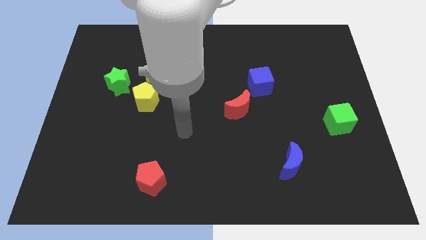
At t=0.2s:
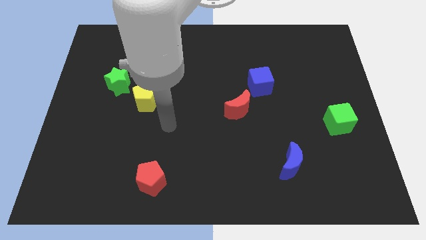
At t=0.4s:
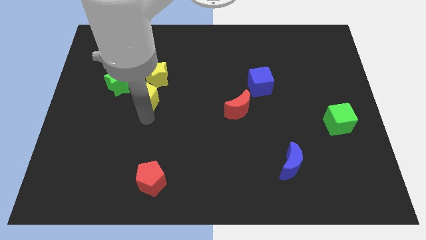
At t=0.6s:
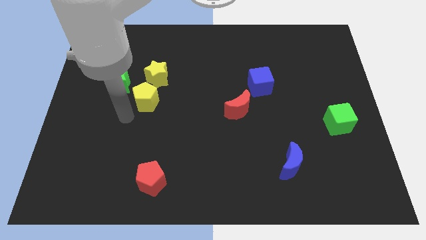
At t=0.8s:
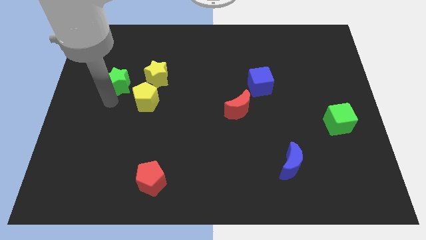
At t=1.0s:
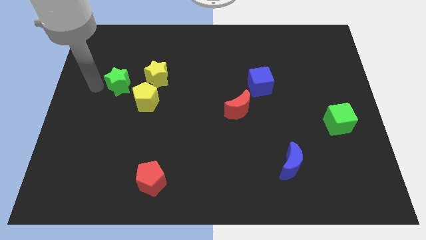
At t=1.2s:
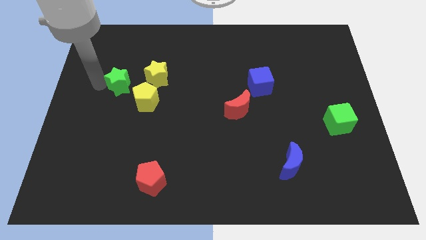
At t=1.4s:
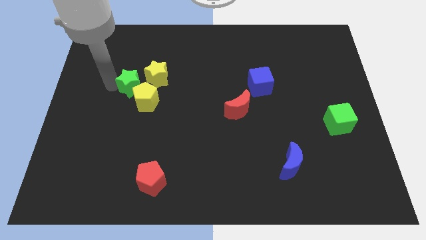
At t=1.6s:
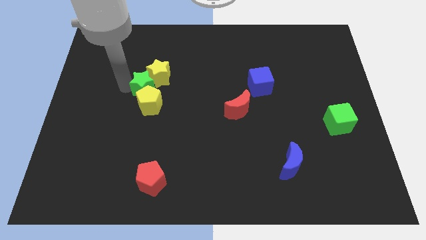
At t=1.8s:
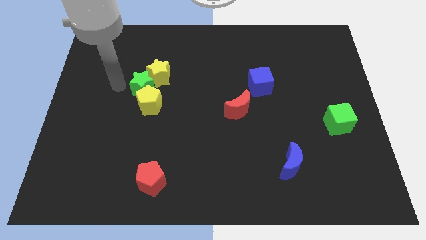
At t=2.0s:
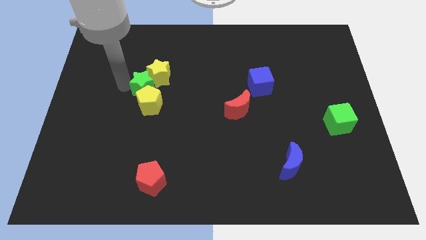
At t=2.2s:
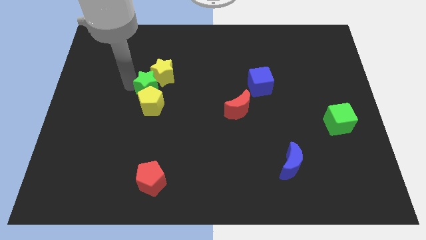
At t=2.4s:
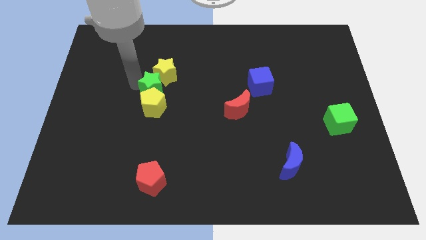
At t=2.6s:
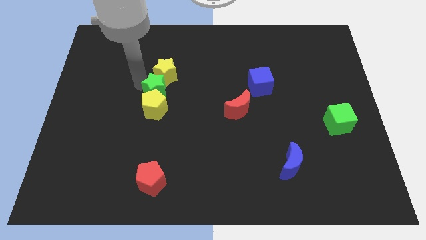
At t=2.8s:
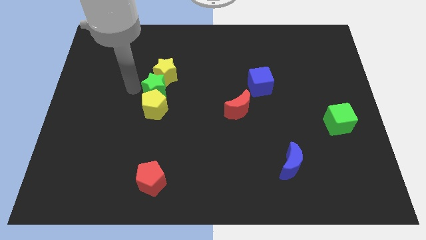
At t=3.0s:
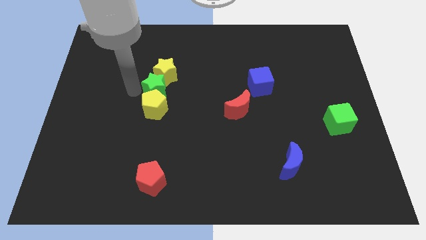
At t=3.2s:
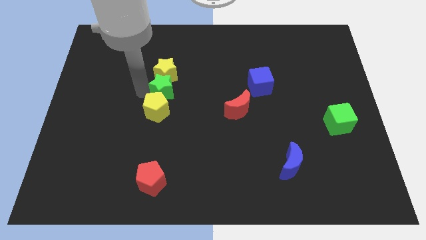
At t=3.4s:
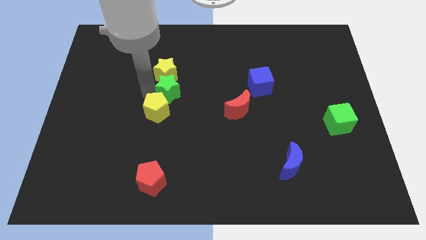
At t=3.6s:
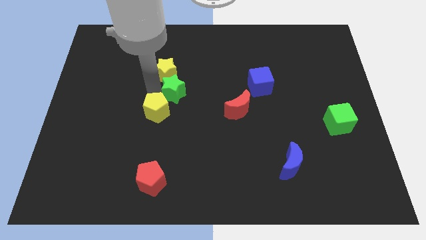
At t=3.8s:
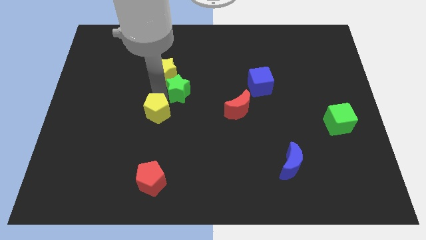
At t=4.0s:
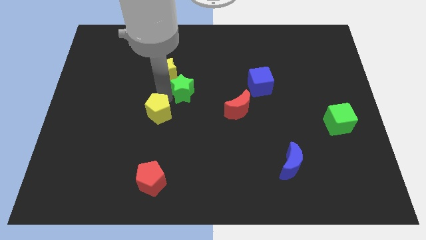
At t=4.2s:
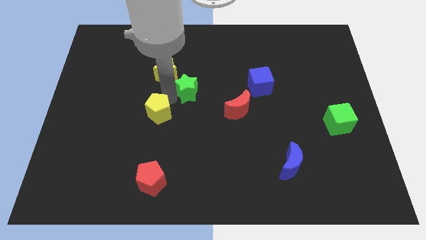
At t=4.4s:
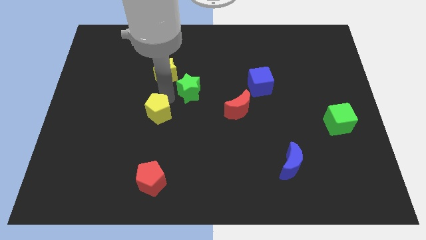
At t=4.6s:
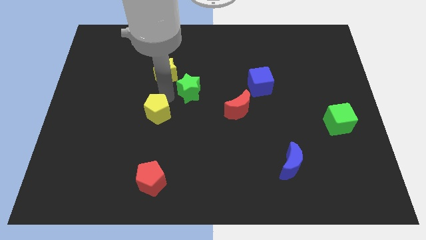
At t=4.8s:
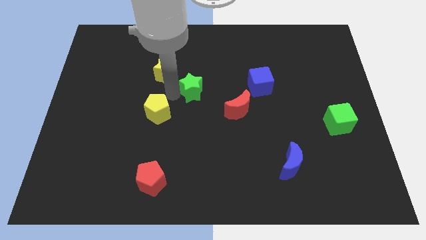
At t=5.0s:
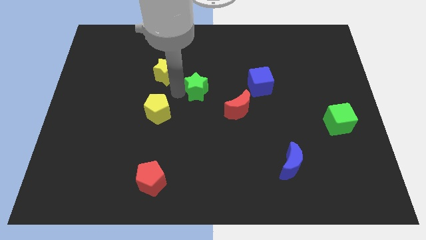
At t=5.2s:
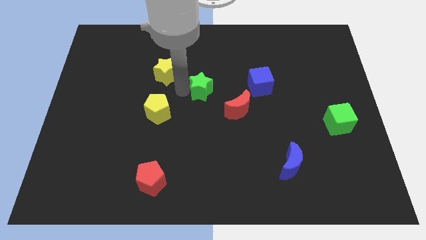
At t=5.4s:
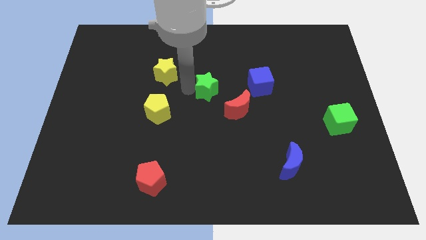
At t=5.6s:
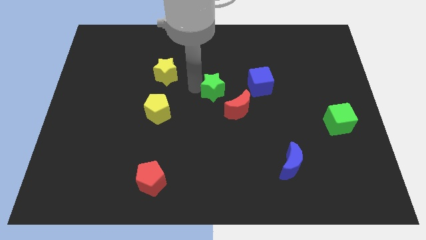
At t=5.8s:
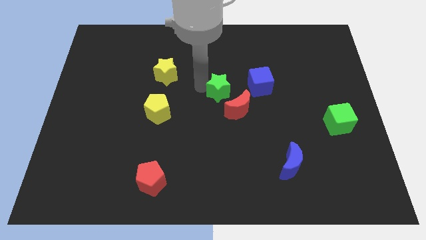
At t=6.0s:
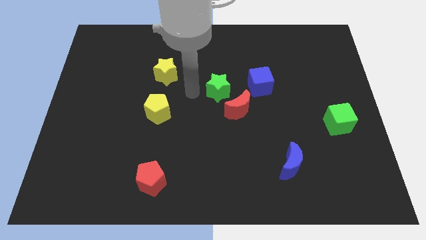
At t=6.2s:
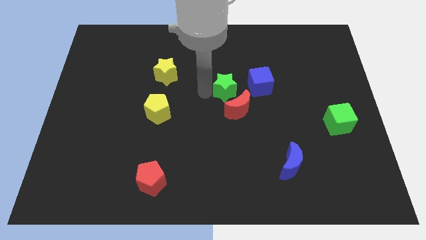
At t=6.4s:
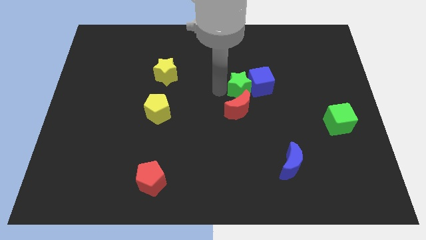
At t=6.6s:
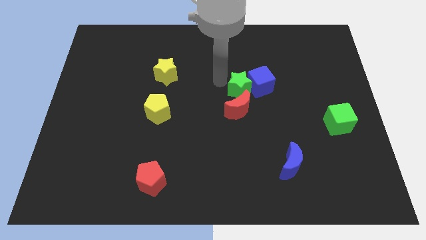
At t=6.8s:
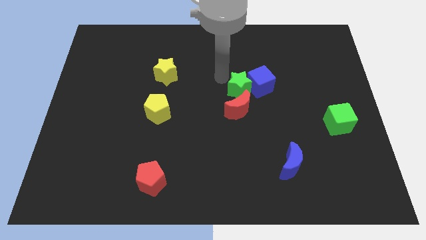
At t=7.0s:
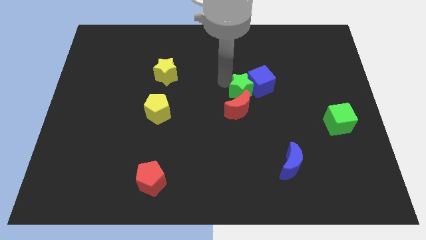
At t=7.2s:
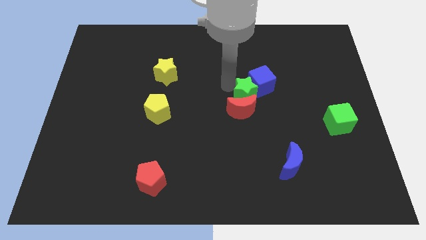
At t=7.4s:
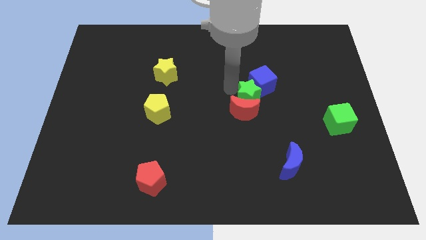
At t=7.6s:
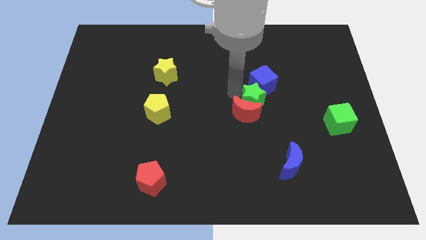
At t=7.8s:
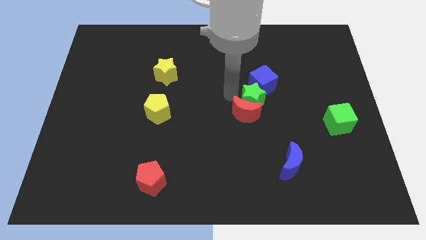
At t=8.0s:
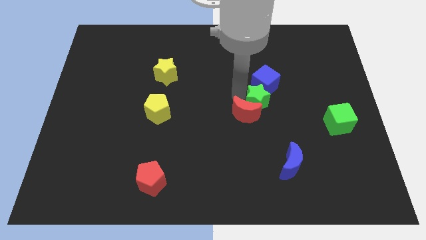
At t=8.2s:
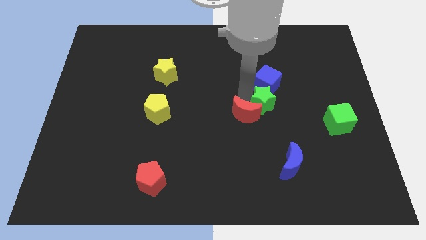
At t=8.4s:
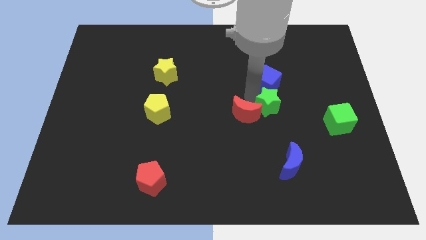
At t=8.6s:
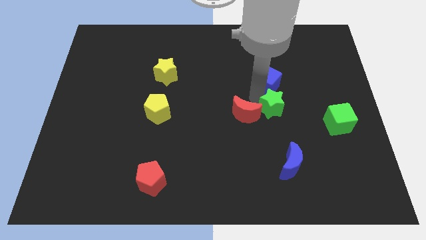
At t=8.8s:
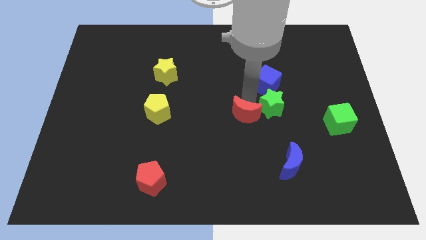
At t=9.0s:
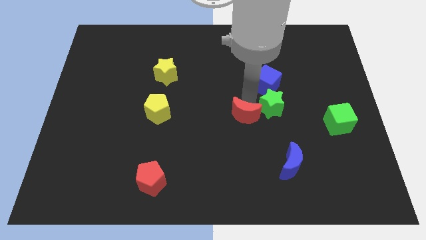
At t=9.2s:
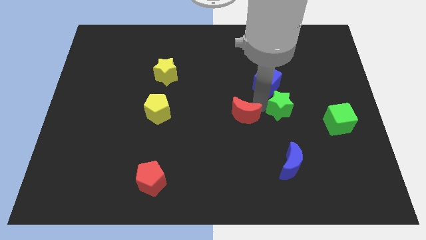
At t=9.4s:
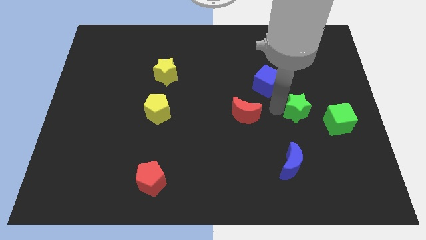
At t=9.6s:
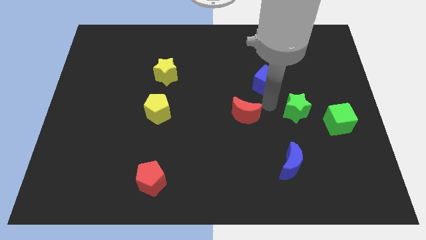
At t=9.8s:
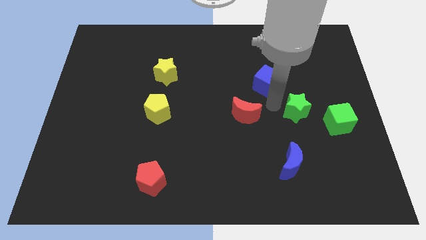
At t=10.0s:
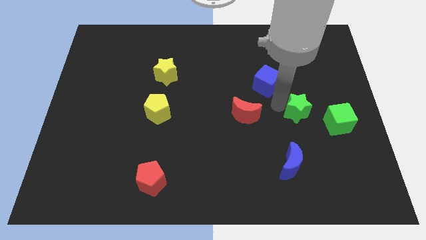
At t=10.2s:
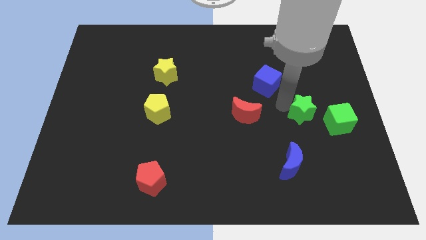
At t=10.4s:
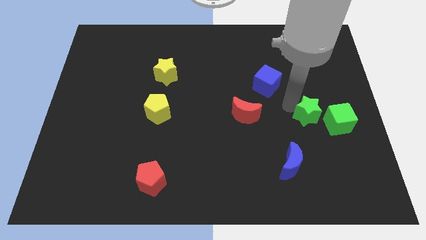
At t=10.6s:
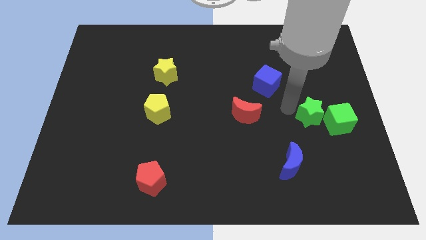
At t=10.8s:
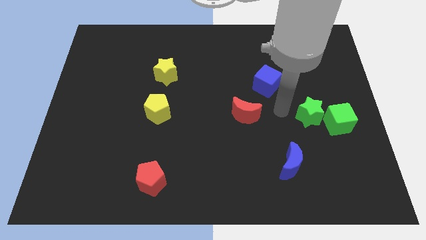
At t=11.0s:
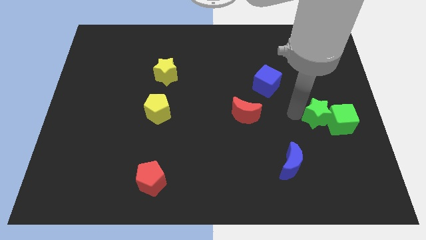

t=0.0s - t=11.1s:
push the green star close to the green cube

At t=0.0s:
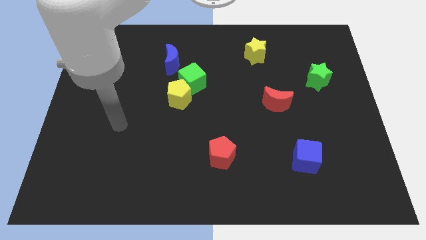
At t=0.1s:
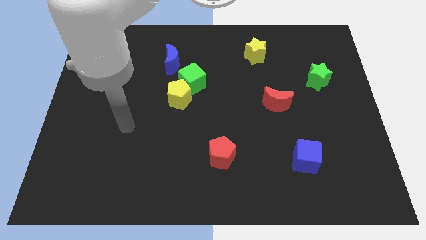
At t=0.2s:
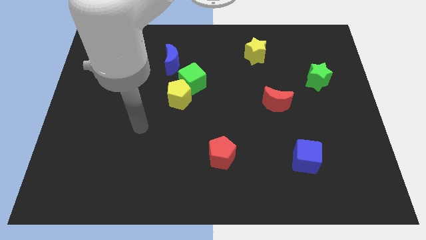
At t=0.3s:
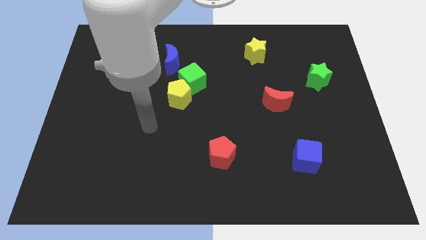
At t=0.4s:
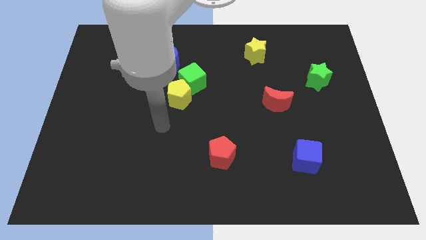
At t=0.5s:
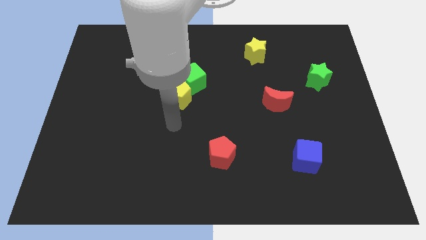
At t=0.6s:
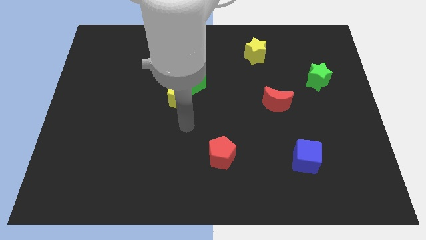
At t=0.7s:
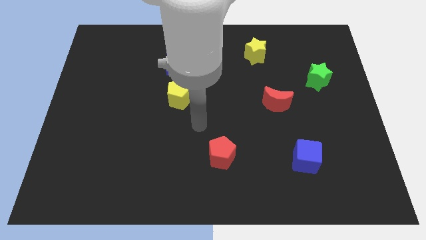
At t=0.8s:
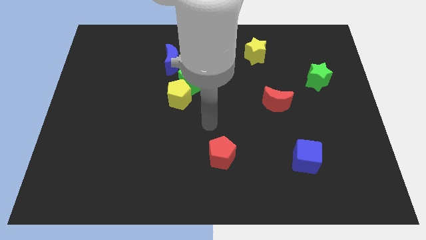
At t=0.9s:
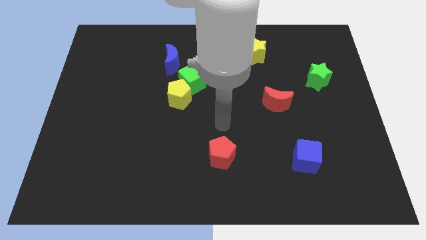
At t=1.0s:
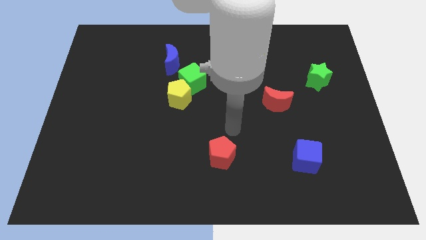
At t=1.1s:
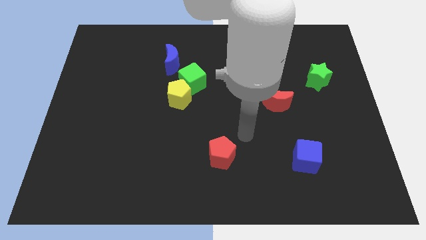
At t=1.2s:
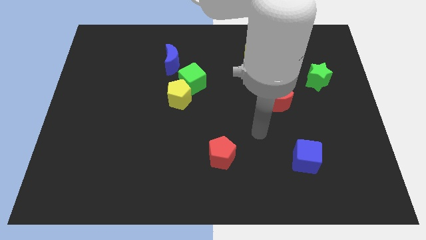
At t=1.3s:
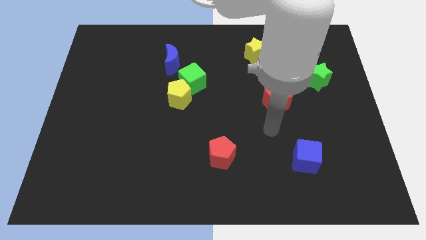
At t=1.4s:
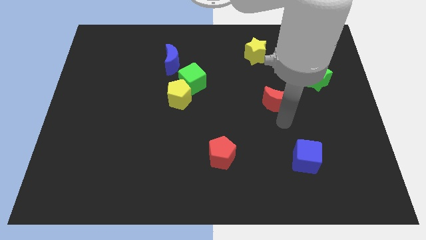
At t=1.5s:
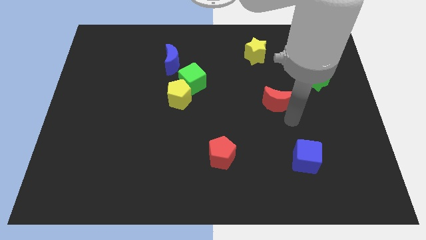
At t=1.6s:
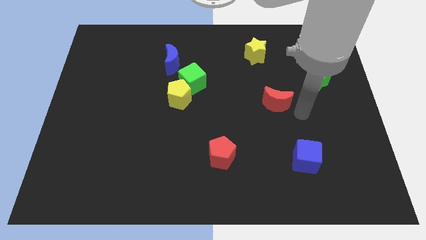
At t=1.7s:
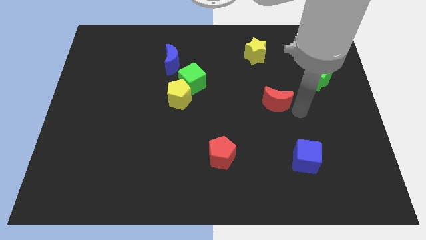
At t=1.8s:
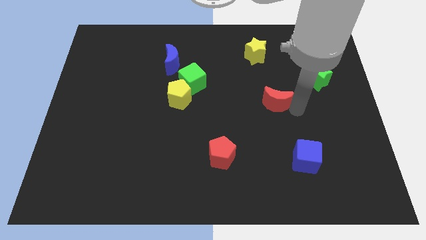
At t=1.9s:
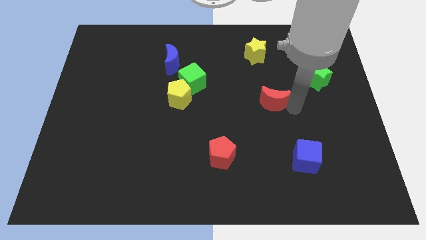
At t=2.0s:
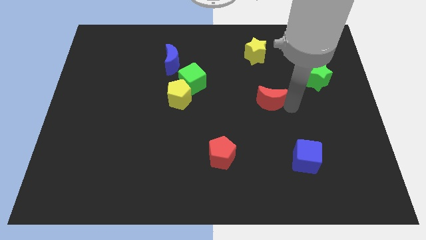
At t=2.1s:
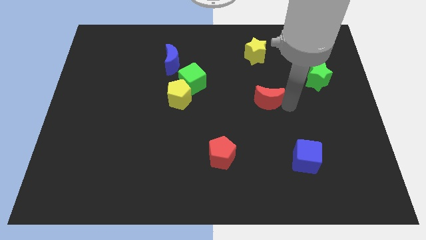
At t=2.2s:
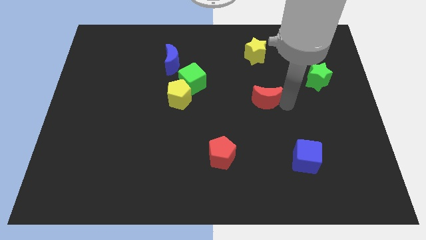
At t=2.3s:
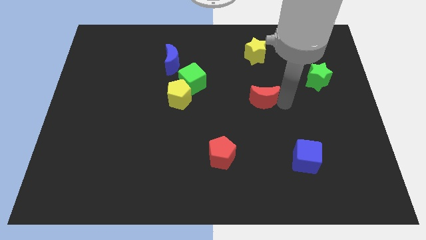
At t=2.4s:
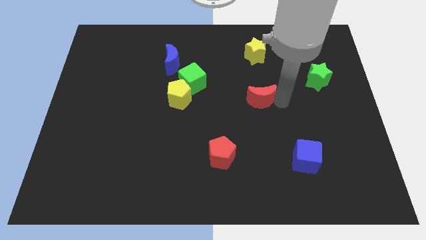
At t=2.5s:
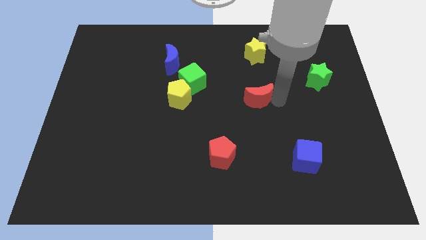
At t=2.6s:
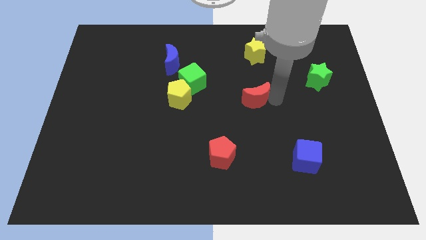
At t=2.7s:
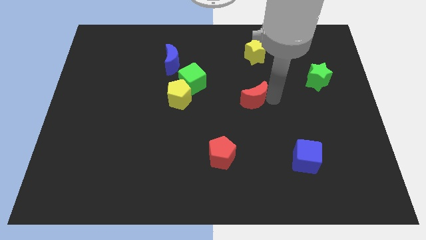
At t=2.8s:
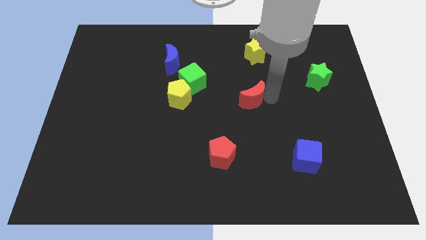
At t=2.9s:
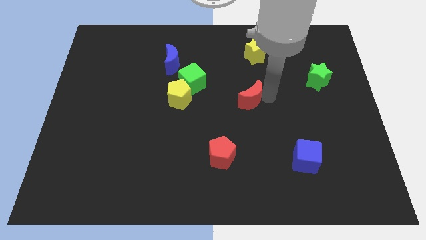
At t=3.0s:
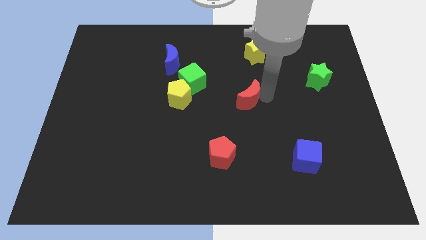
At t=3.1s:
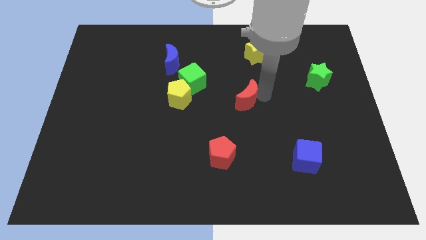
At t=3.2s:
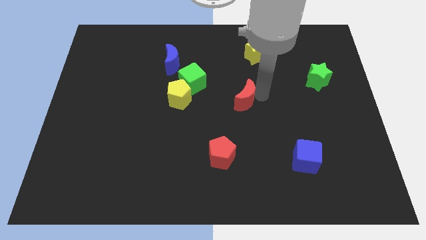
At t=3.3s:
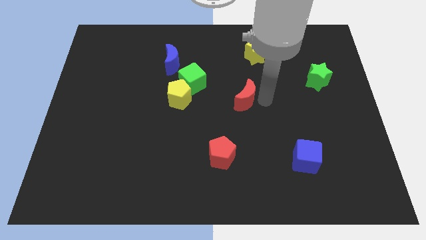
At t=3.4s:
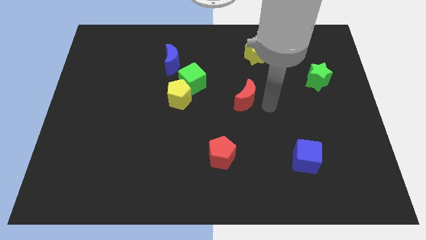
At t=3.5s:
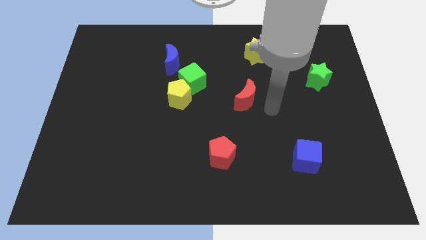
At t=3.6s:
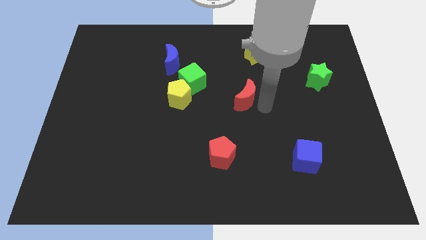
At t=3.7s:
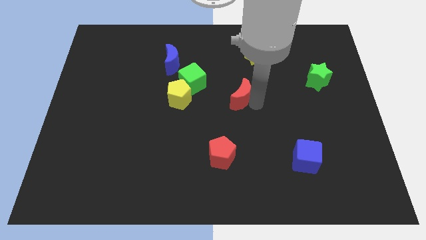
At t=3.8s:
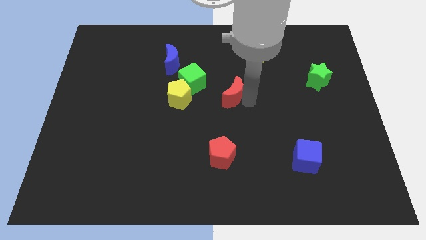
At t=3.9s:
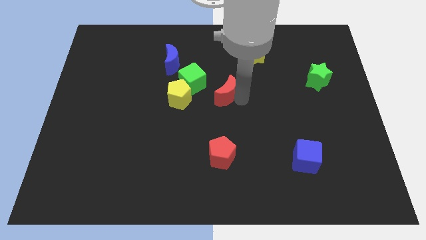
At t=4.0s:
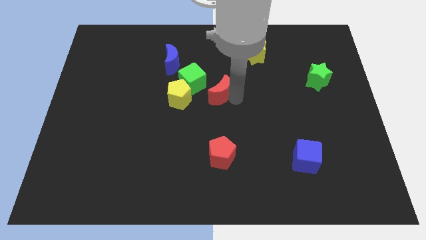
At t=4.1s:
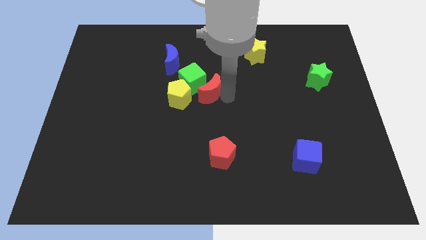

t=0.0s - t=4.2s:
push the red moon to the green cube
